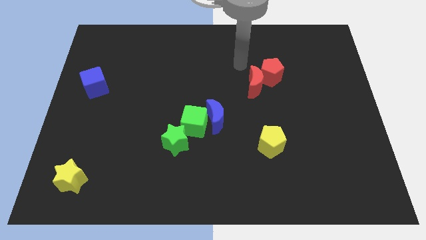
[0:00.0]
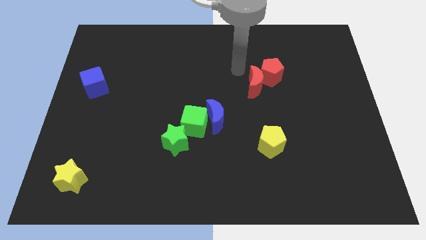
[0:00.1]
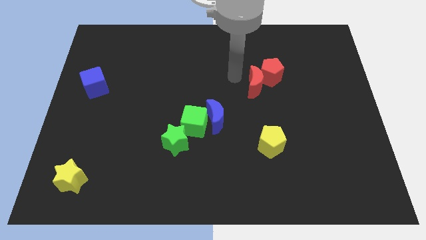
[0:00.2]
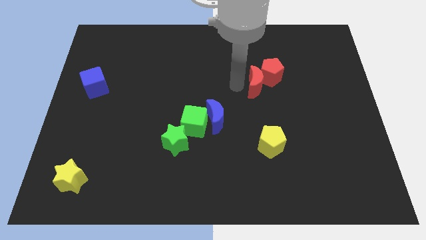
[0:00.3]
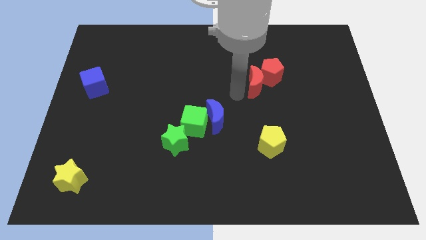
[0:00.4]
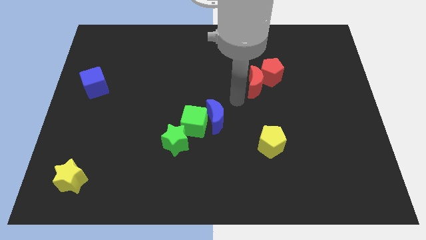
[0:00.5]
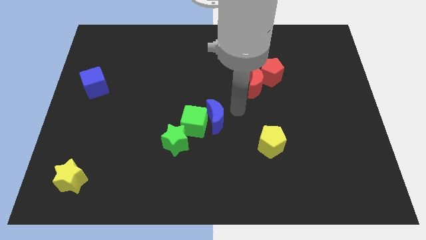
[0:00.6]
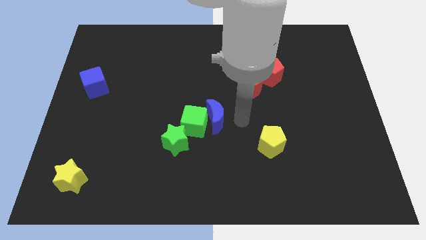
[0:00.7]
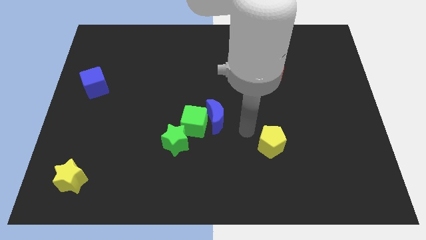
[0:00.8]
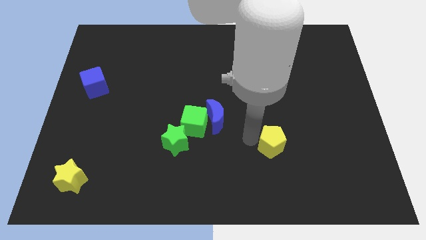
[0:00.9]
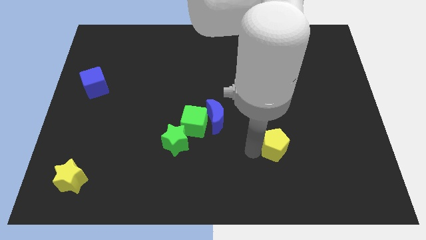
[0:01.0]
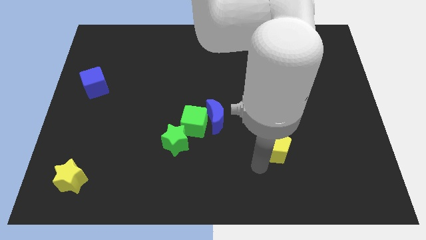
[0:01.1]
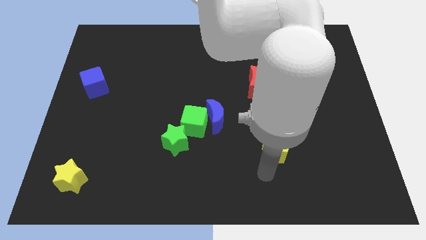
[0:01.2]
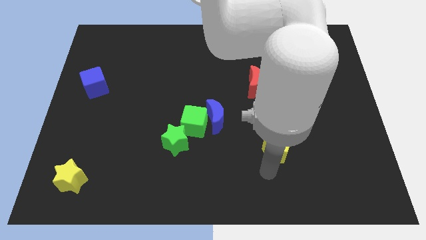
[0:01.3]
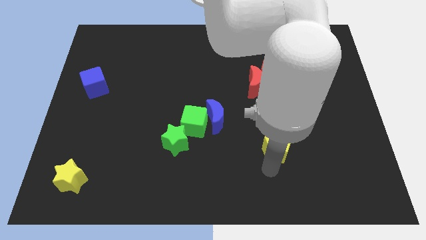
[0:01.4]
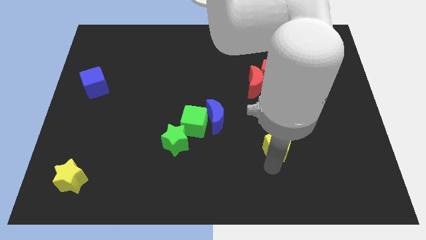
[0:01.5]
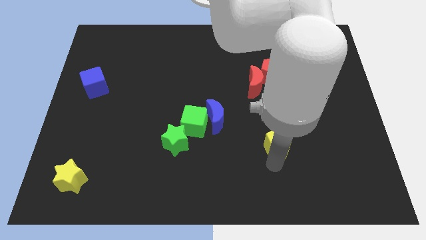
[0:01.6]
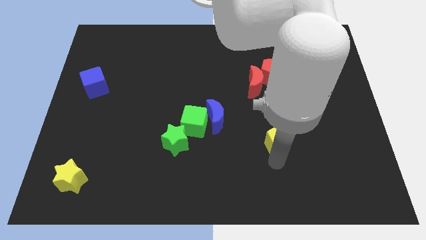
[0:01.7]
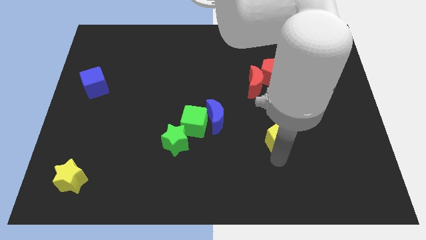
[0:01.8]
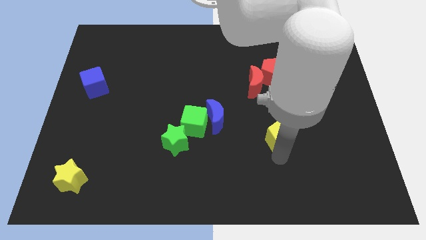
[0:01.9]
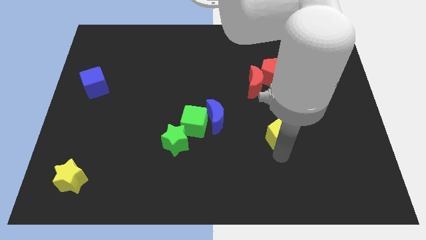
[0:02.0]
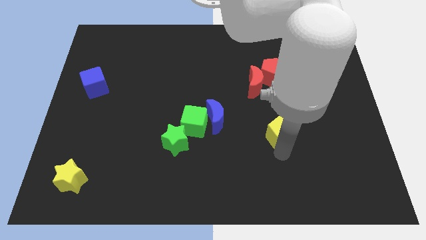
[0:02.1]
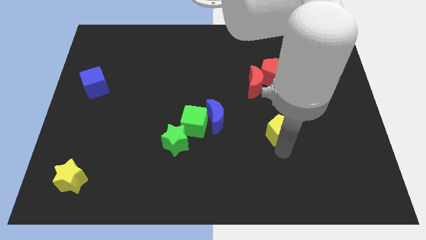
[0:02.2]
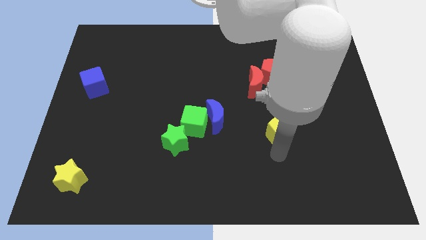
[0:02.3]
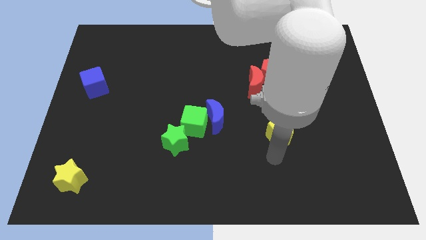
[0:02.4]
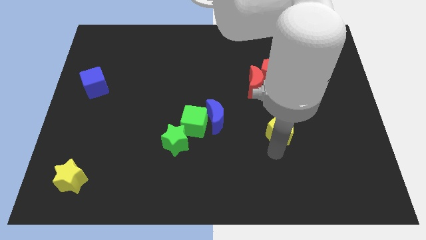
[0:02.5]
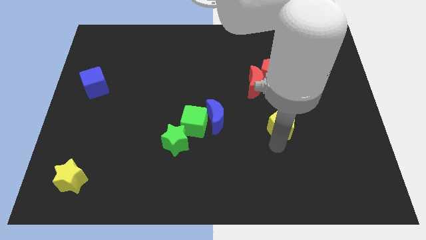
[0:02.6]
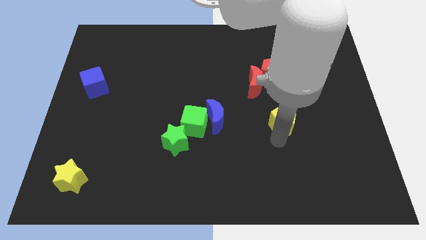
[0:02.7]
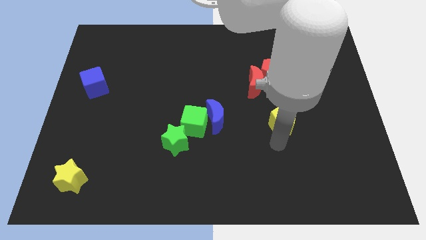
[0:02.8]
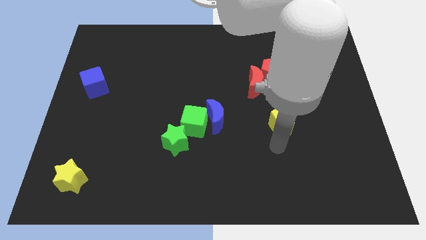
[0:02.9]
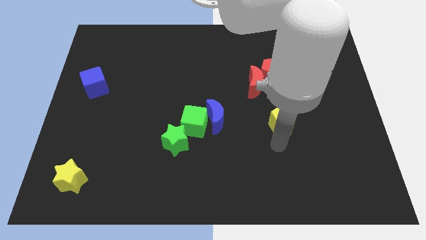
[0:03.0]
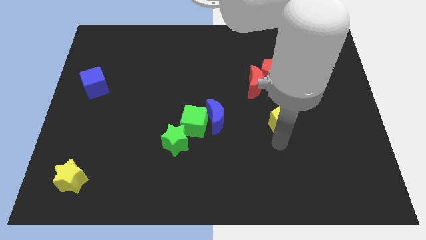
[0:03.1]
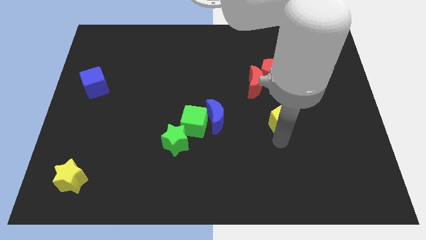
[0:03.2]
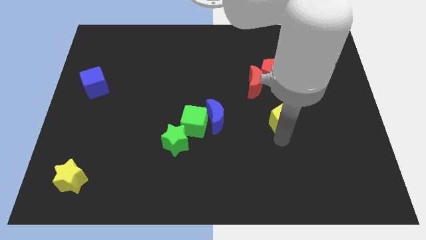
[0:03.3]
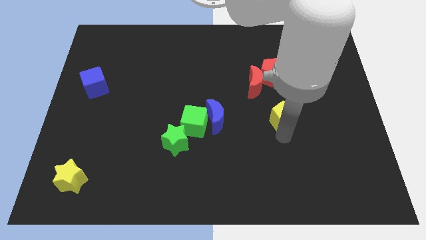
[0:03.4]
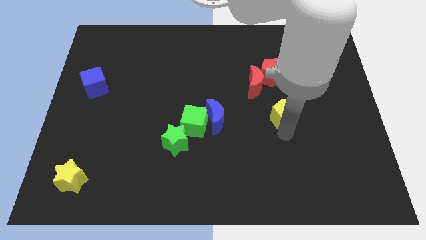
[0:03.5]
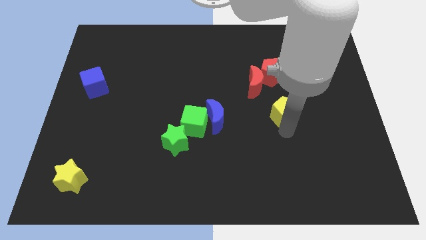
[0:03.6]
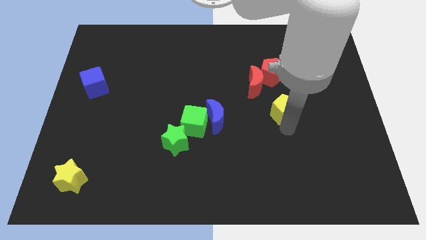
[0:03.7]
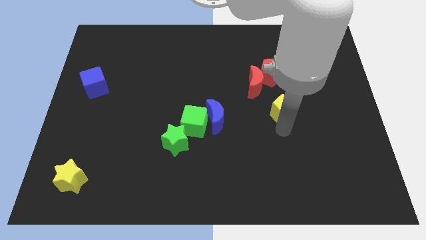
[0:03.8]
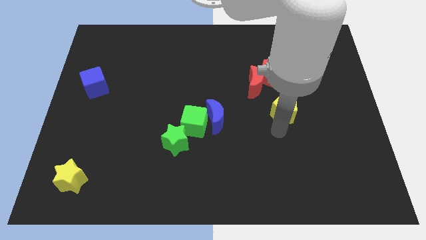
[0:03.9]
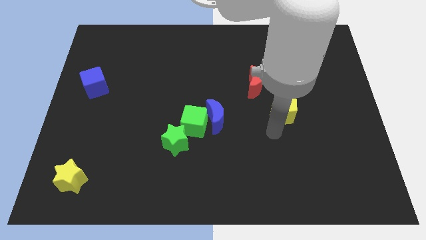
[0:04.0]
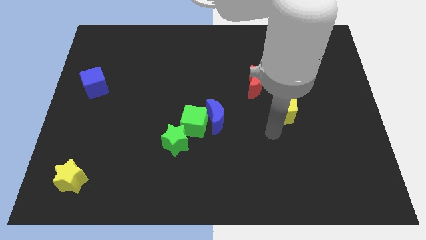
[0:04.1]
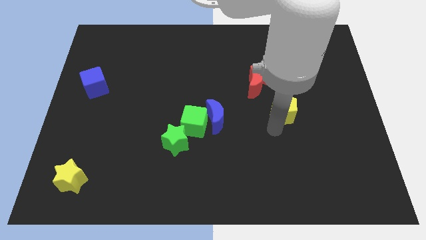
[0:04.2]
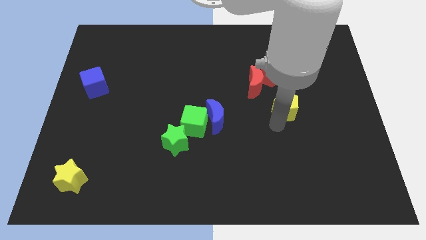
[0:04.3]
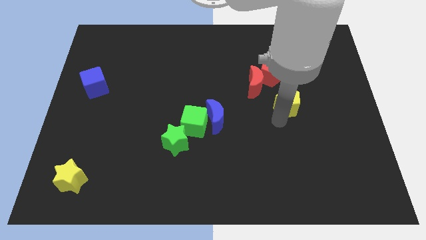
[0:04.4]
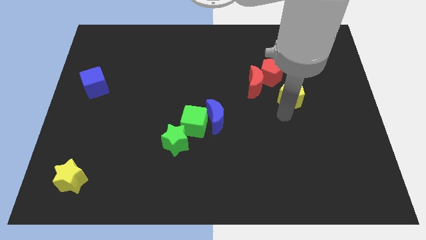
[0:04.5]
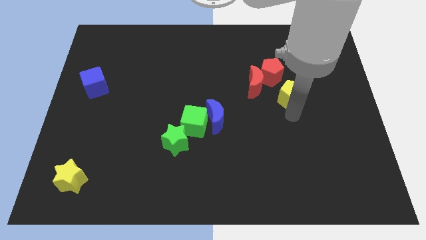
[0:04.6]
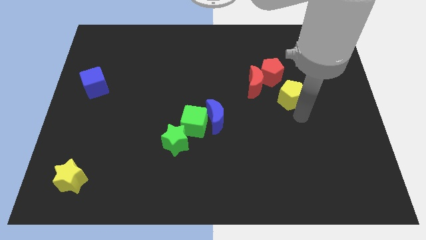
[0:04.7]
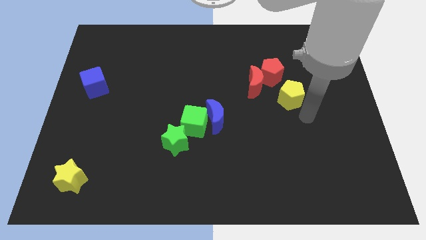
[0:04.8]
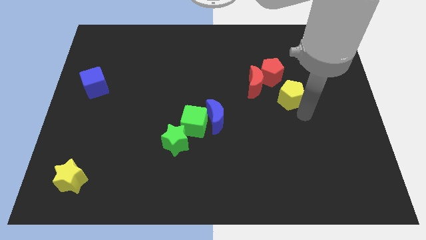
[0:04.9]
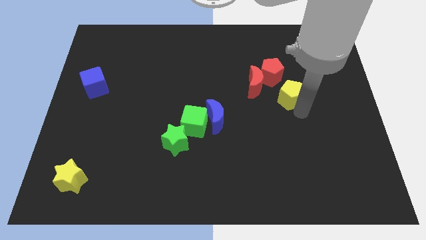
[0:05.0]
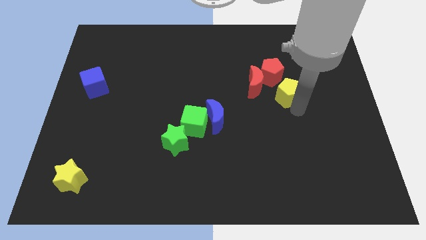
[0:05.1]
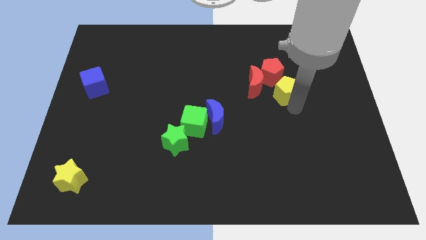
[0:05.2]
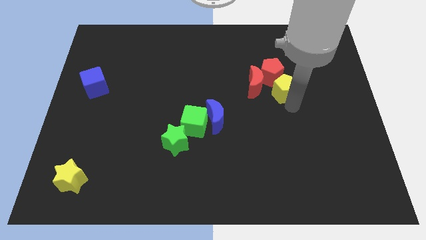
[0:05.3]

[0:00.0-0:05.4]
slide the yellow pentagon close to the red pentagon

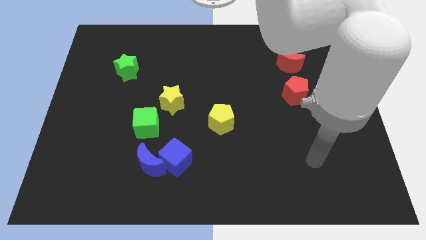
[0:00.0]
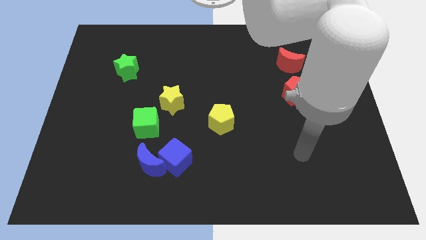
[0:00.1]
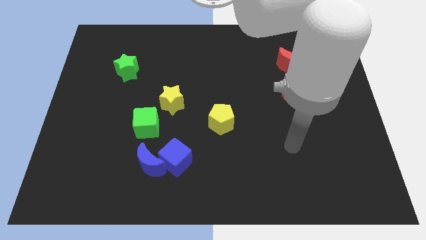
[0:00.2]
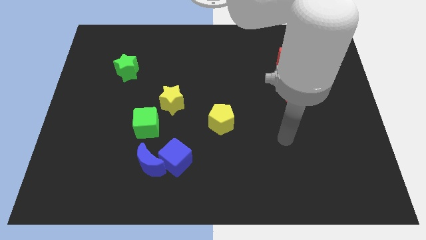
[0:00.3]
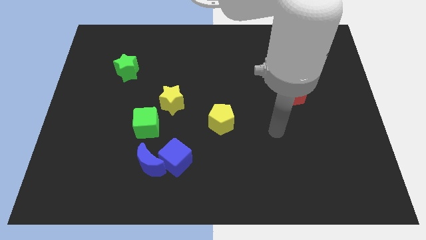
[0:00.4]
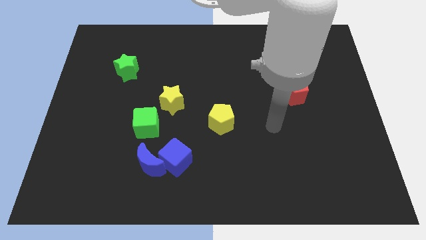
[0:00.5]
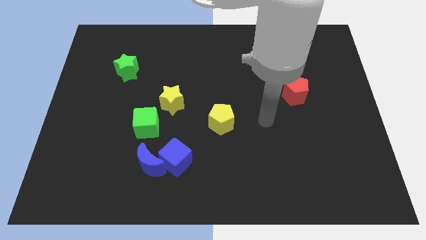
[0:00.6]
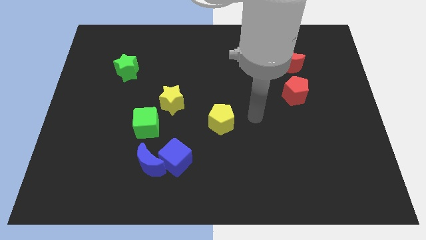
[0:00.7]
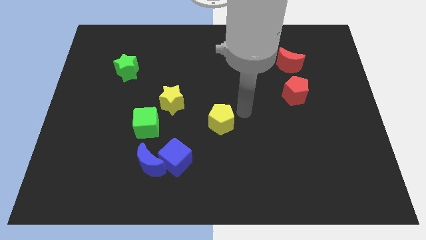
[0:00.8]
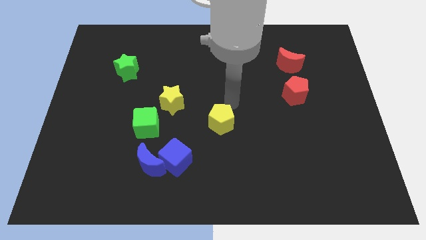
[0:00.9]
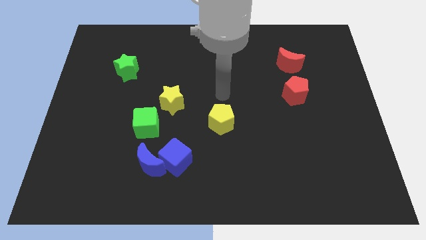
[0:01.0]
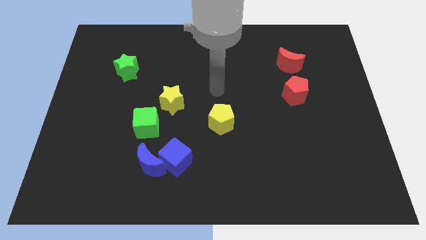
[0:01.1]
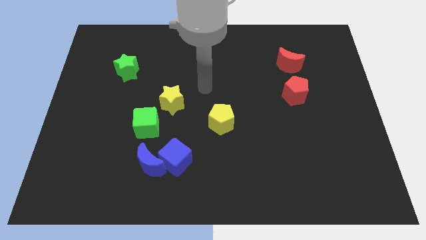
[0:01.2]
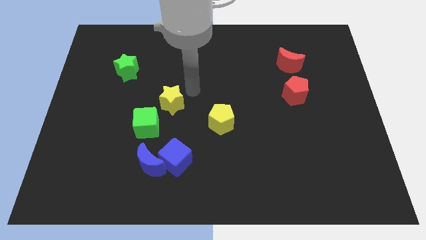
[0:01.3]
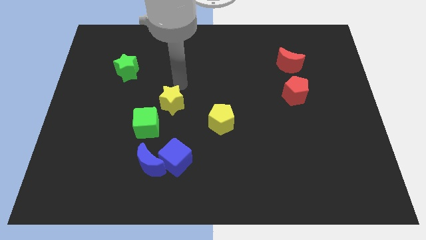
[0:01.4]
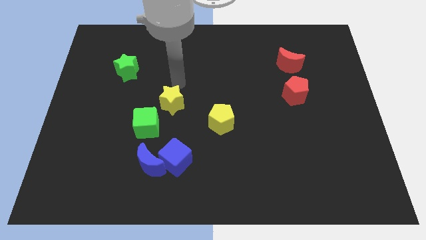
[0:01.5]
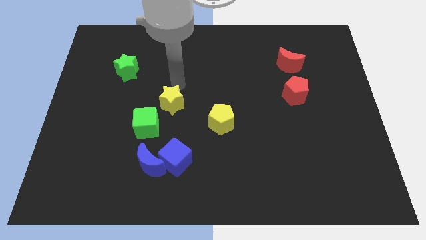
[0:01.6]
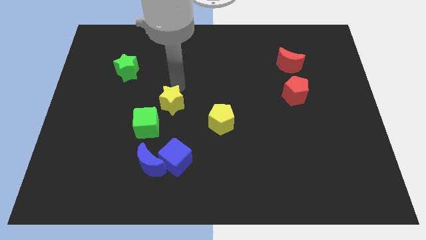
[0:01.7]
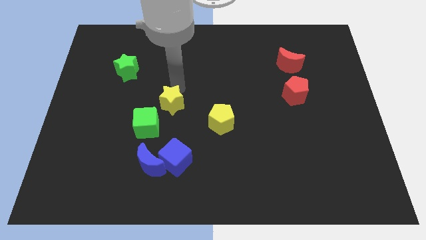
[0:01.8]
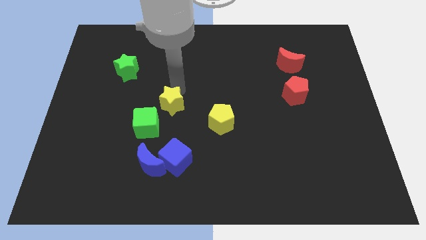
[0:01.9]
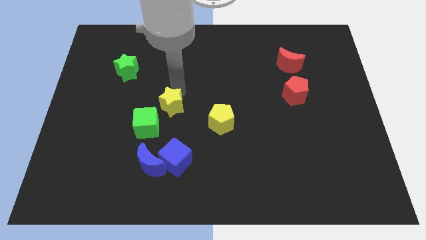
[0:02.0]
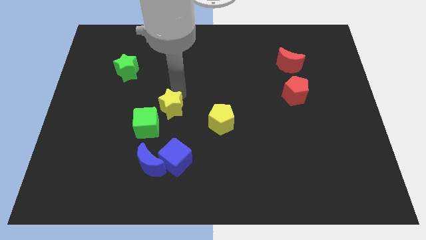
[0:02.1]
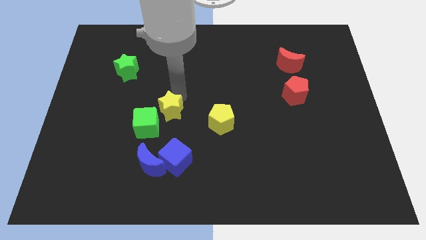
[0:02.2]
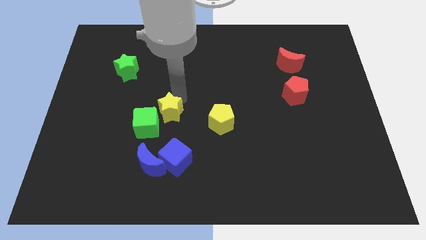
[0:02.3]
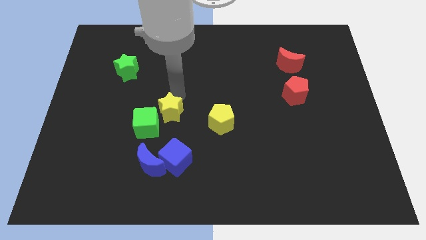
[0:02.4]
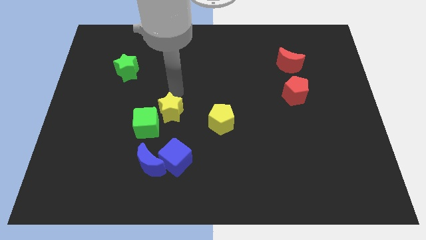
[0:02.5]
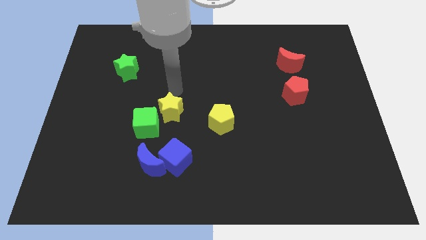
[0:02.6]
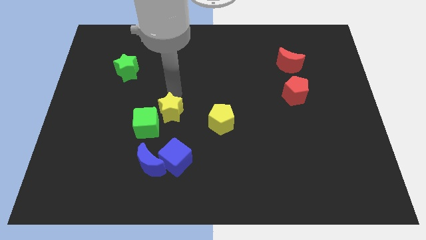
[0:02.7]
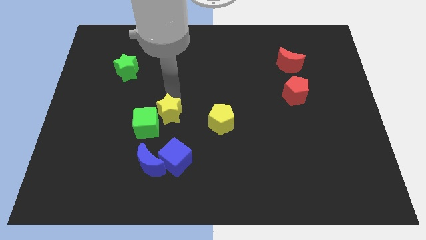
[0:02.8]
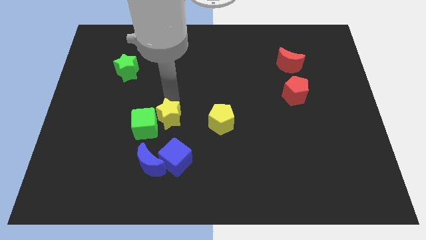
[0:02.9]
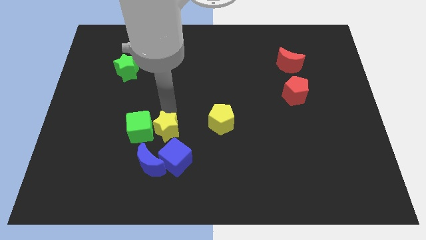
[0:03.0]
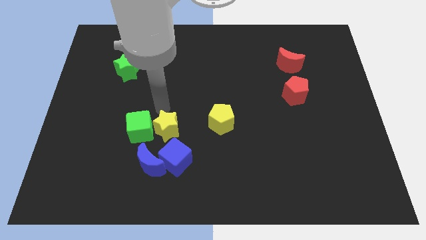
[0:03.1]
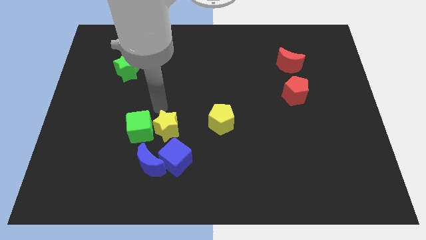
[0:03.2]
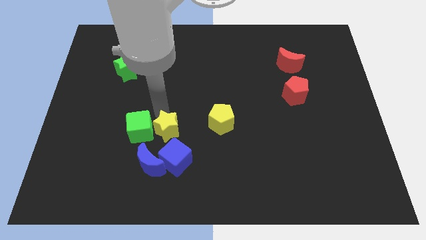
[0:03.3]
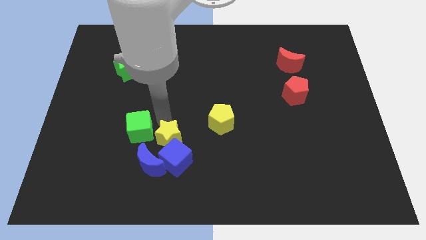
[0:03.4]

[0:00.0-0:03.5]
slide the yellow star to the blue cube
